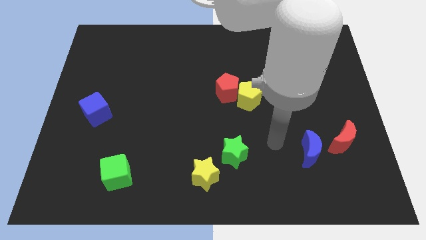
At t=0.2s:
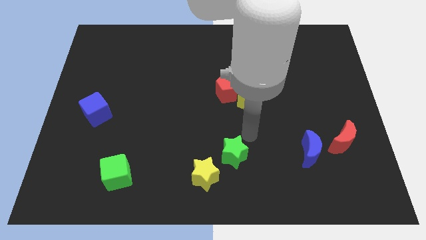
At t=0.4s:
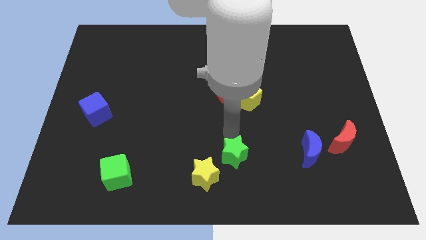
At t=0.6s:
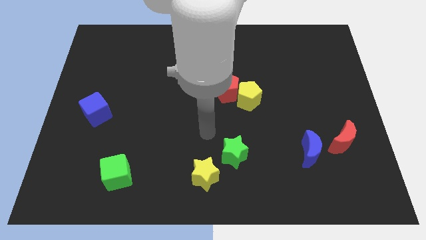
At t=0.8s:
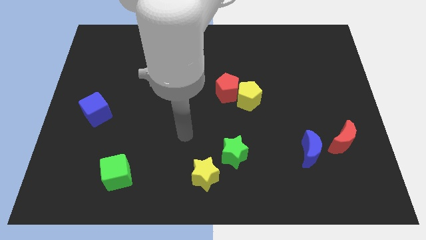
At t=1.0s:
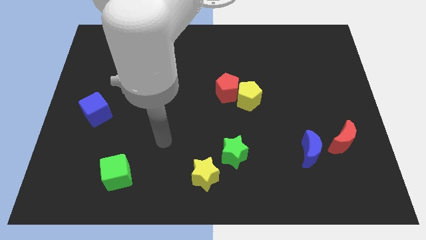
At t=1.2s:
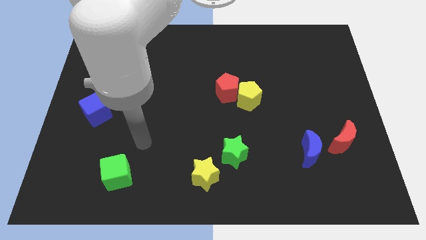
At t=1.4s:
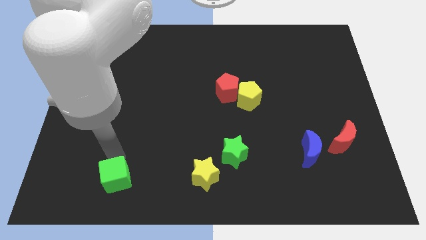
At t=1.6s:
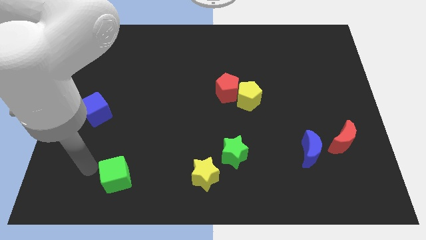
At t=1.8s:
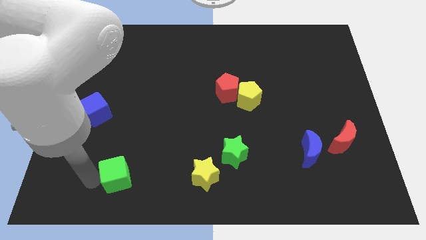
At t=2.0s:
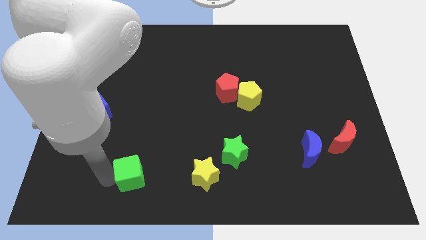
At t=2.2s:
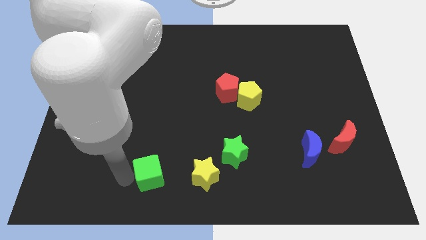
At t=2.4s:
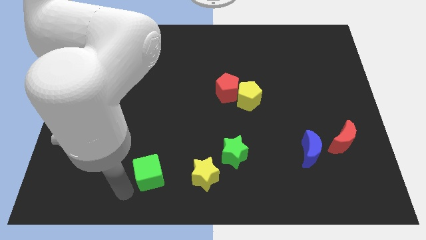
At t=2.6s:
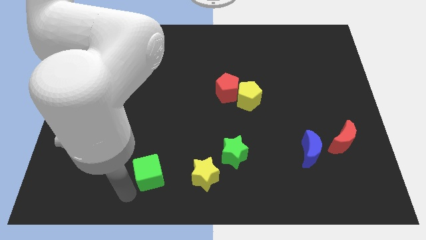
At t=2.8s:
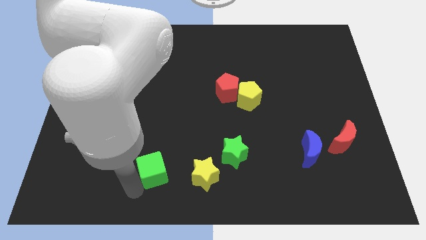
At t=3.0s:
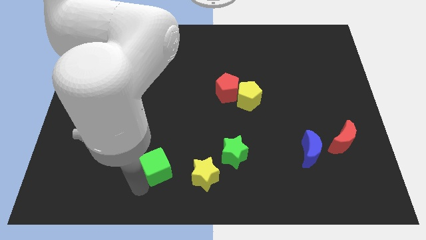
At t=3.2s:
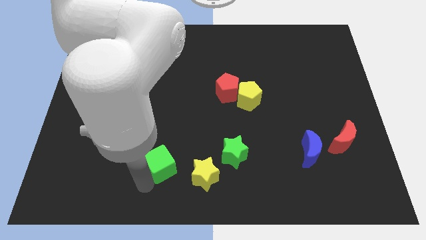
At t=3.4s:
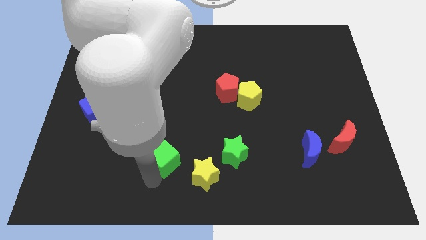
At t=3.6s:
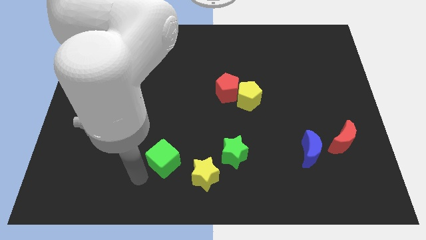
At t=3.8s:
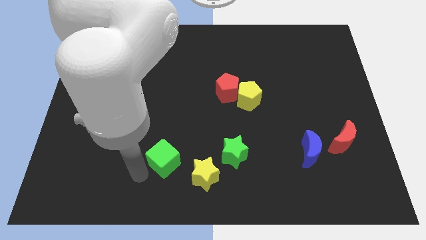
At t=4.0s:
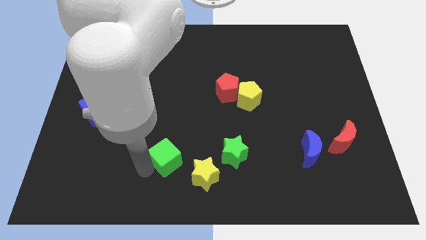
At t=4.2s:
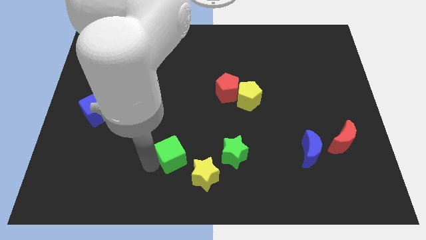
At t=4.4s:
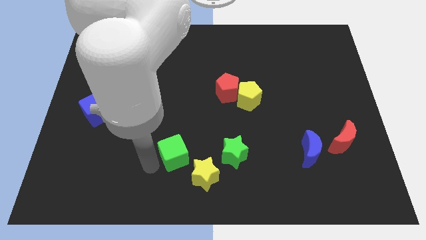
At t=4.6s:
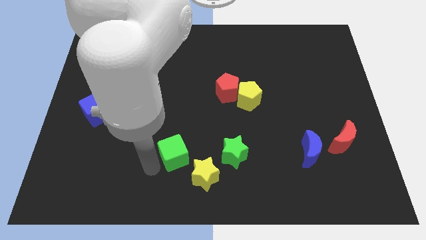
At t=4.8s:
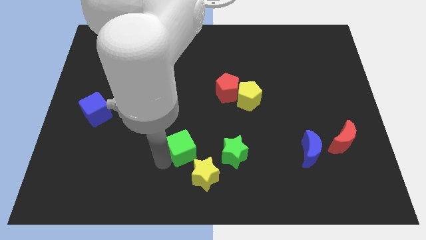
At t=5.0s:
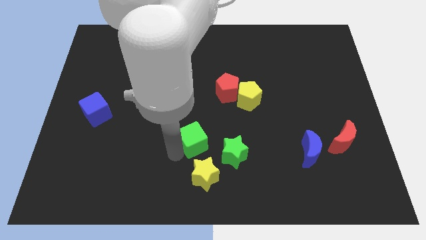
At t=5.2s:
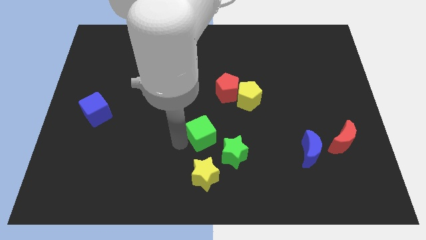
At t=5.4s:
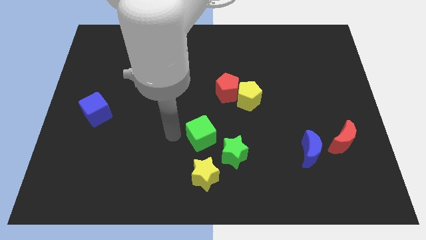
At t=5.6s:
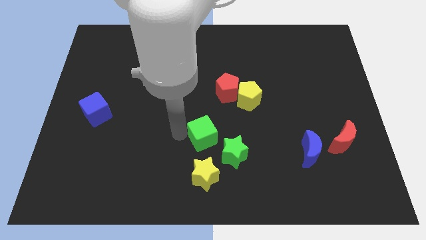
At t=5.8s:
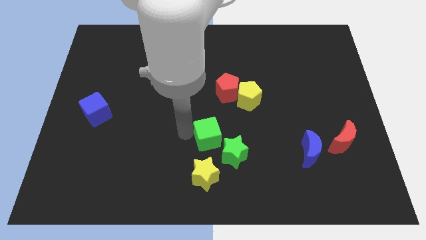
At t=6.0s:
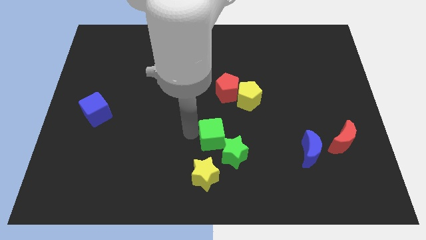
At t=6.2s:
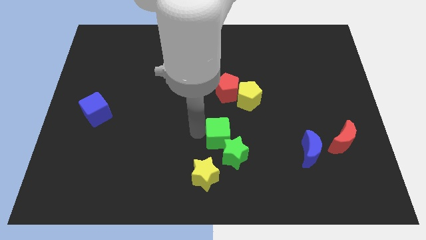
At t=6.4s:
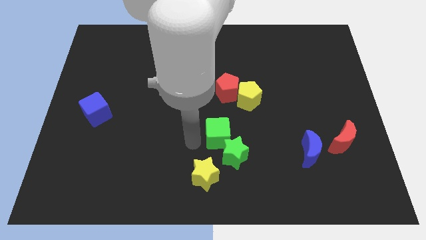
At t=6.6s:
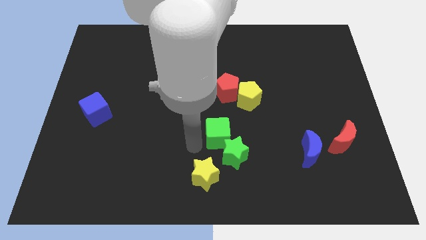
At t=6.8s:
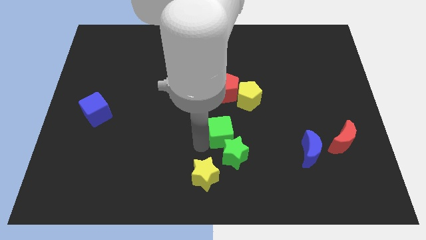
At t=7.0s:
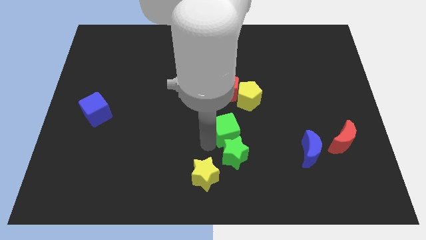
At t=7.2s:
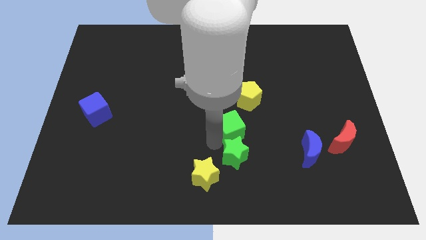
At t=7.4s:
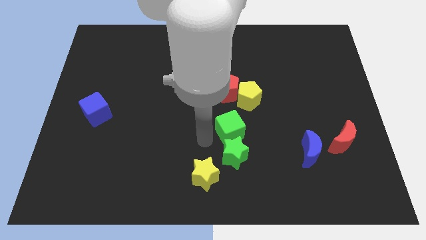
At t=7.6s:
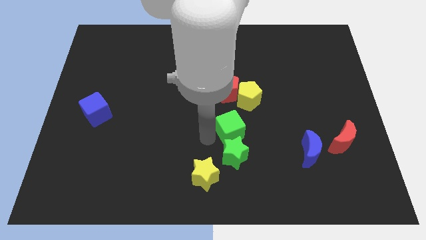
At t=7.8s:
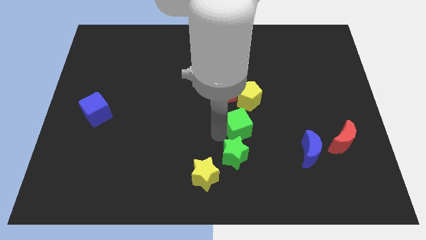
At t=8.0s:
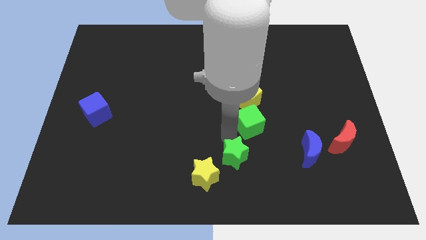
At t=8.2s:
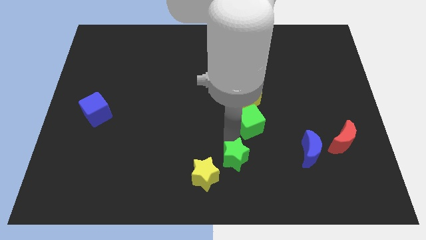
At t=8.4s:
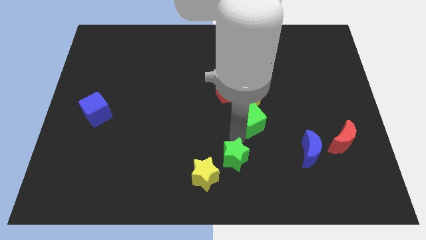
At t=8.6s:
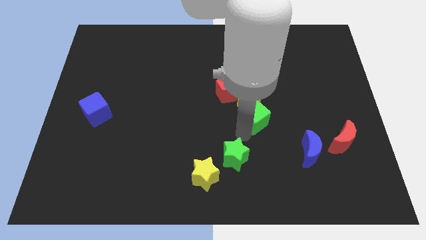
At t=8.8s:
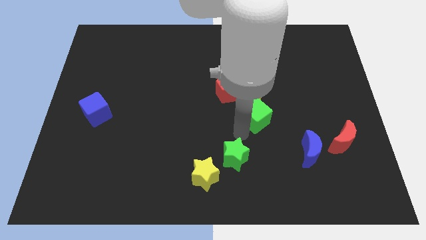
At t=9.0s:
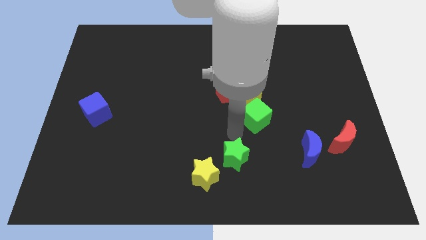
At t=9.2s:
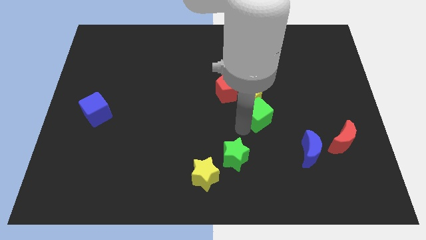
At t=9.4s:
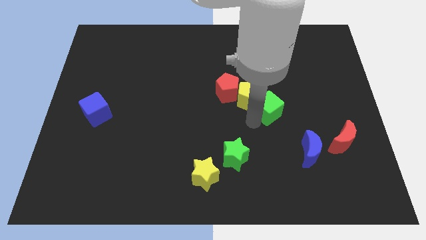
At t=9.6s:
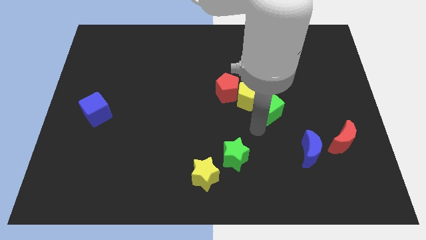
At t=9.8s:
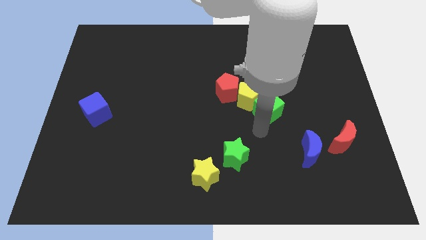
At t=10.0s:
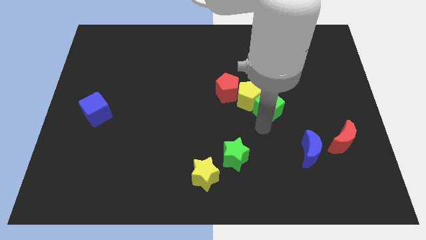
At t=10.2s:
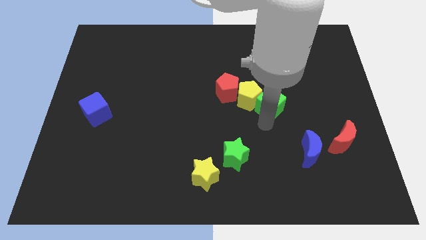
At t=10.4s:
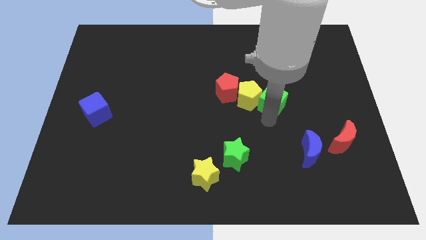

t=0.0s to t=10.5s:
slide the green cube to the top right of the yellow pentagon

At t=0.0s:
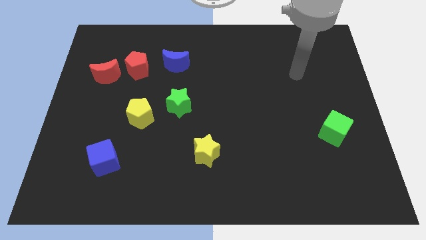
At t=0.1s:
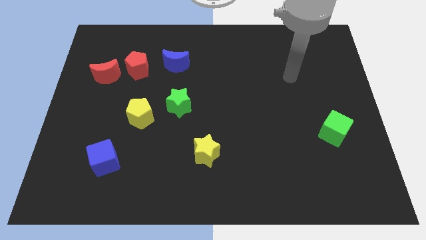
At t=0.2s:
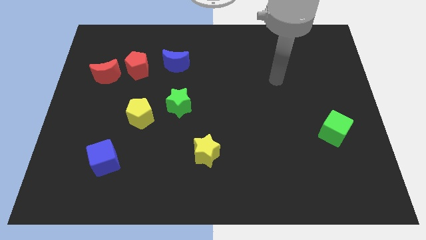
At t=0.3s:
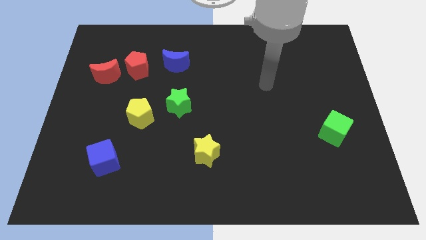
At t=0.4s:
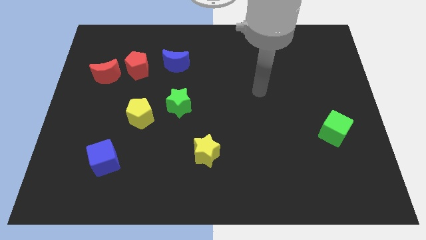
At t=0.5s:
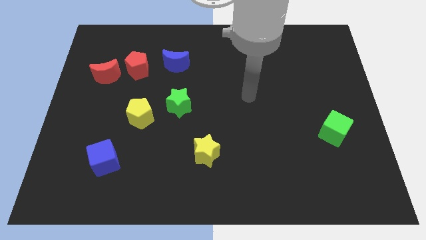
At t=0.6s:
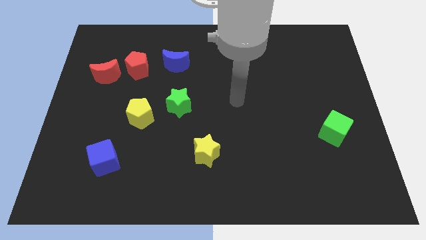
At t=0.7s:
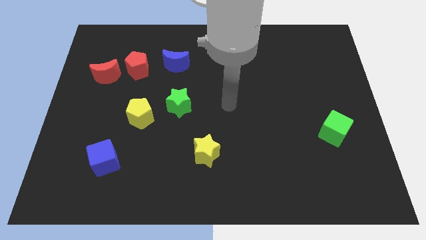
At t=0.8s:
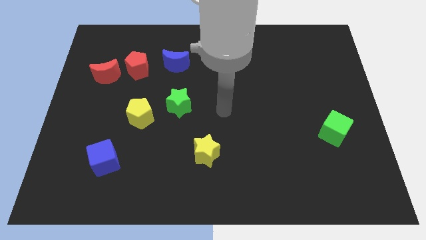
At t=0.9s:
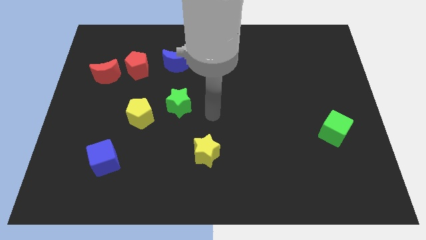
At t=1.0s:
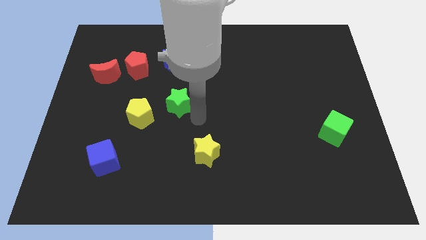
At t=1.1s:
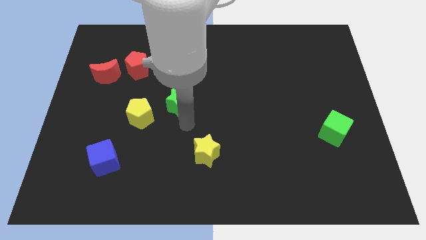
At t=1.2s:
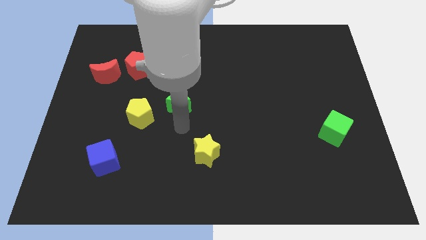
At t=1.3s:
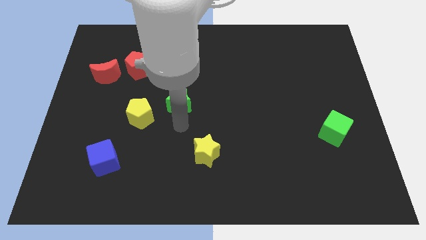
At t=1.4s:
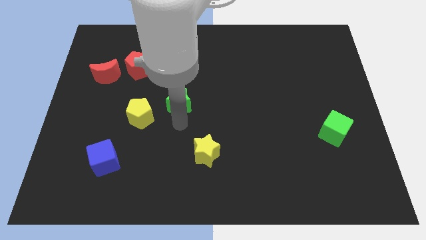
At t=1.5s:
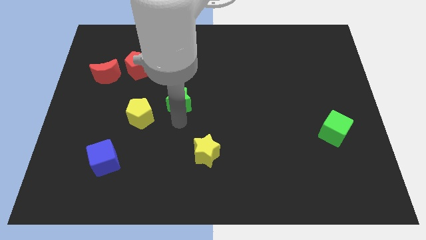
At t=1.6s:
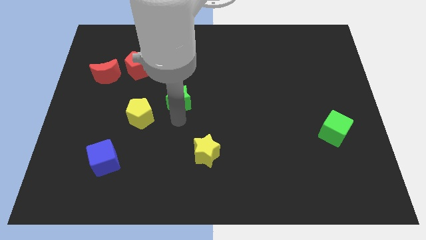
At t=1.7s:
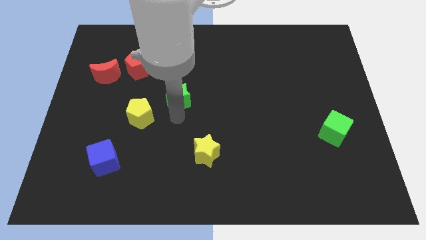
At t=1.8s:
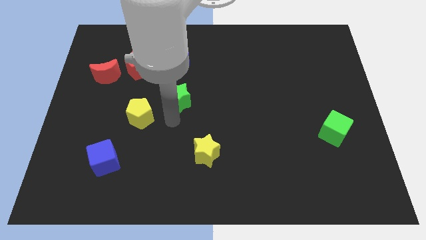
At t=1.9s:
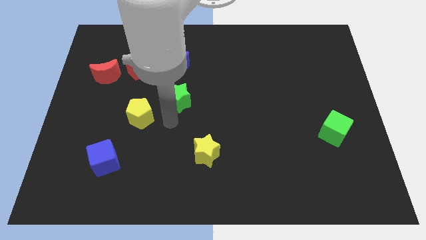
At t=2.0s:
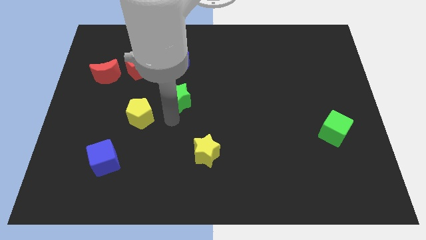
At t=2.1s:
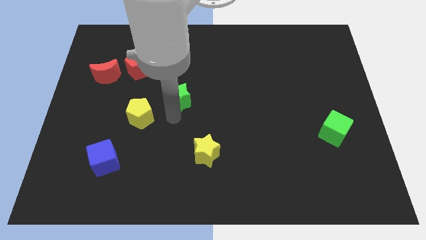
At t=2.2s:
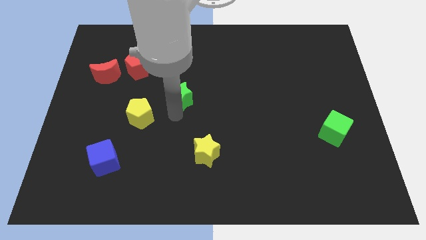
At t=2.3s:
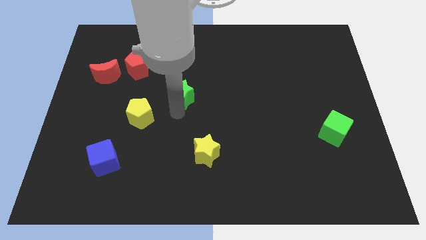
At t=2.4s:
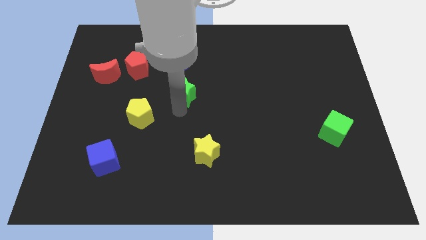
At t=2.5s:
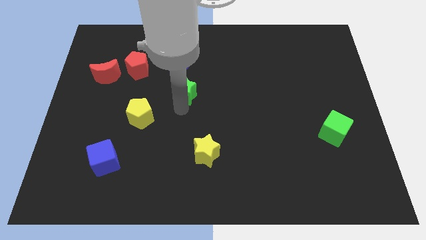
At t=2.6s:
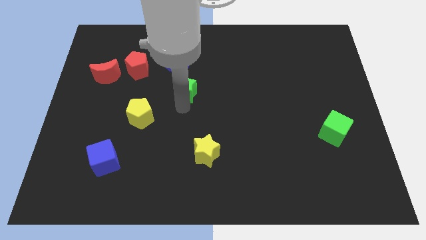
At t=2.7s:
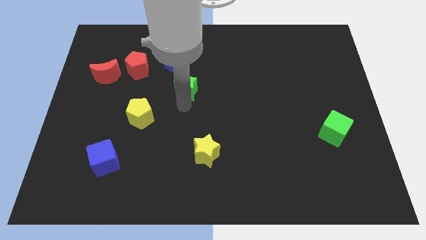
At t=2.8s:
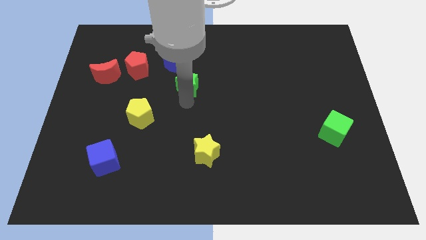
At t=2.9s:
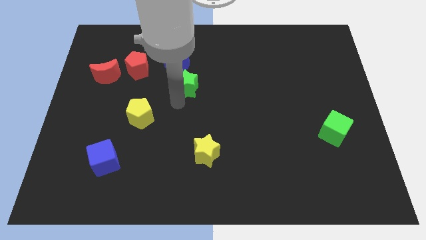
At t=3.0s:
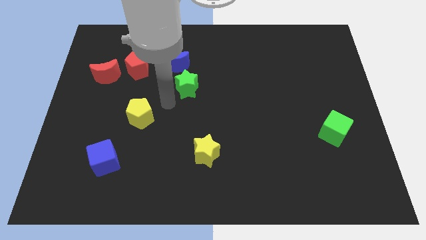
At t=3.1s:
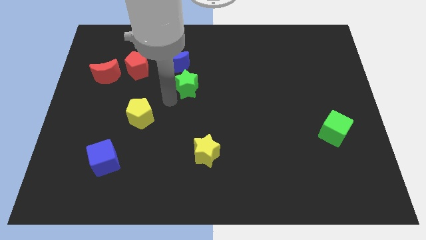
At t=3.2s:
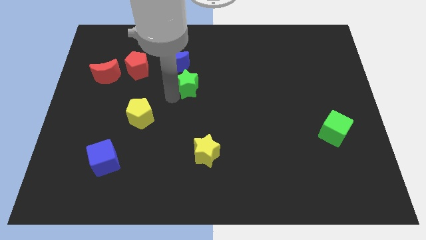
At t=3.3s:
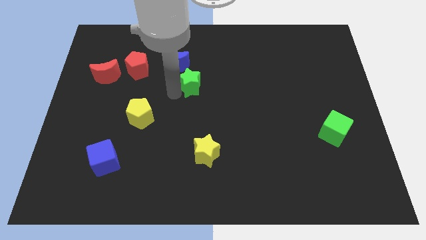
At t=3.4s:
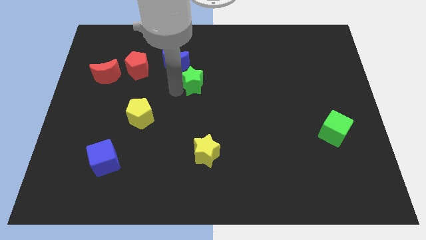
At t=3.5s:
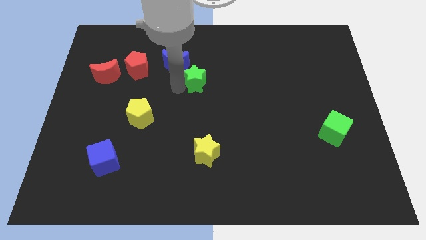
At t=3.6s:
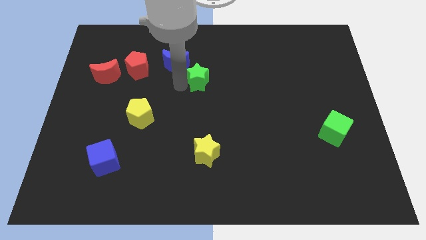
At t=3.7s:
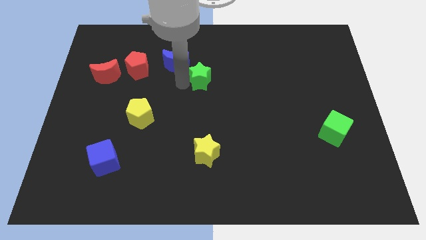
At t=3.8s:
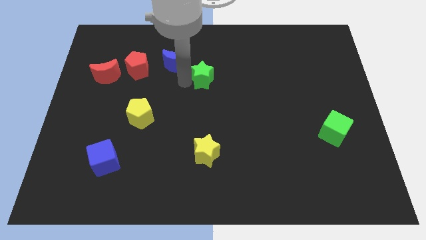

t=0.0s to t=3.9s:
slide the green star right of the blue moon
